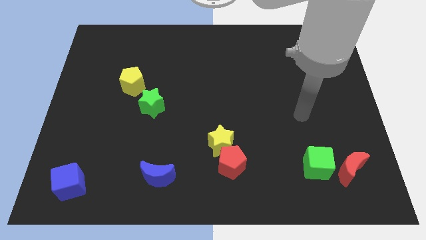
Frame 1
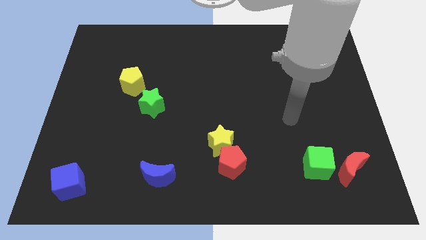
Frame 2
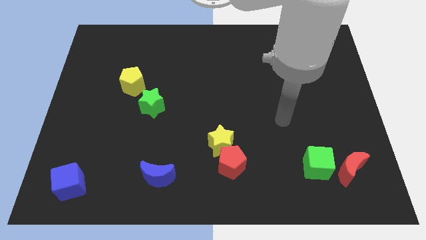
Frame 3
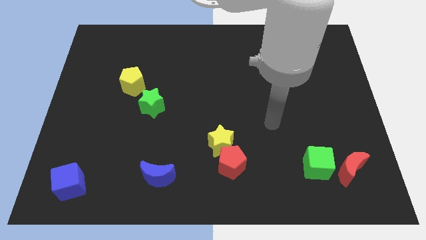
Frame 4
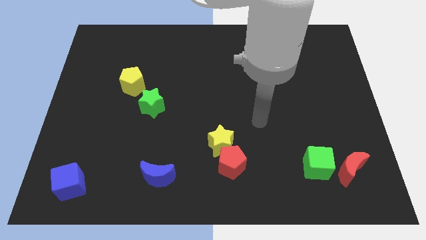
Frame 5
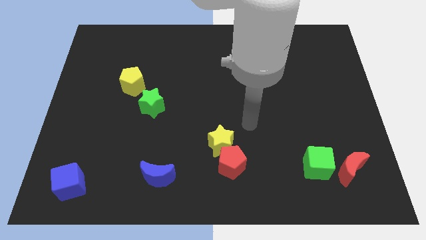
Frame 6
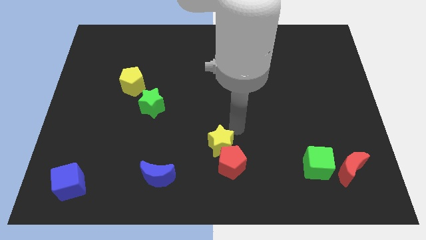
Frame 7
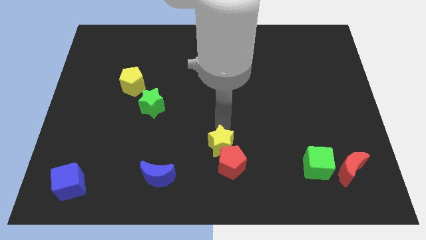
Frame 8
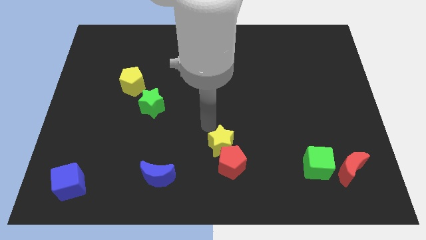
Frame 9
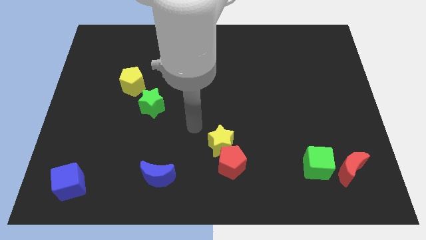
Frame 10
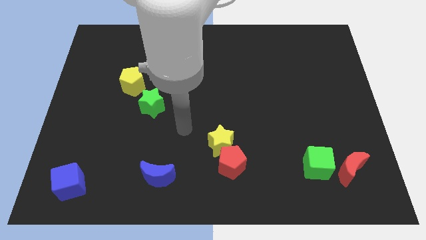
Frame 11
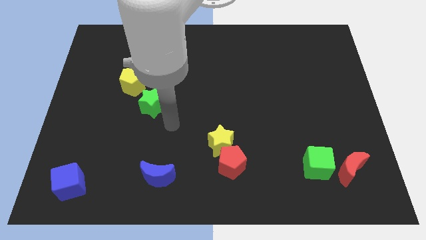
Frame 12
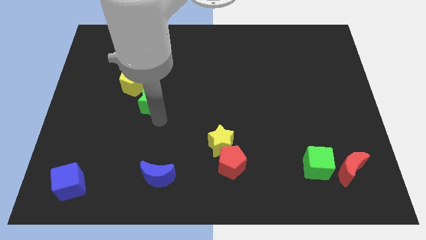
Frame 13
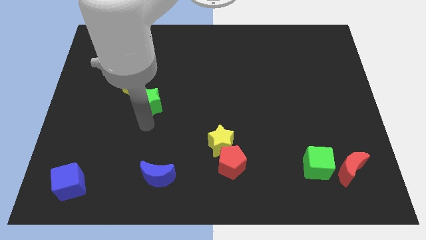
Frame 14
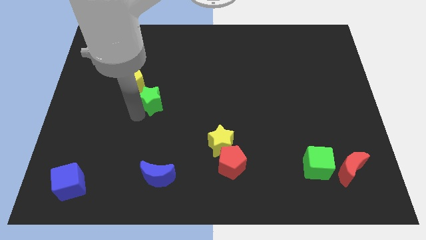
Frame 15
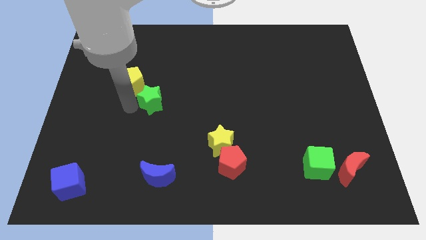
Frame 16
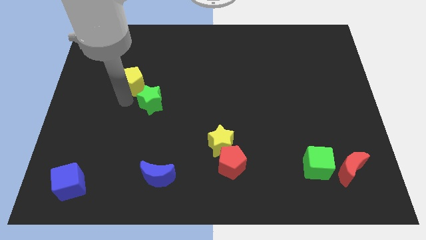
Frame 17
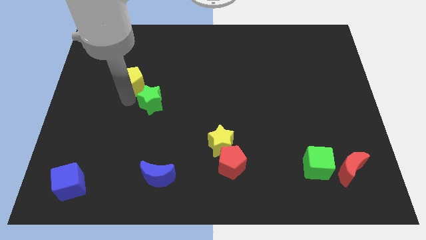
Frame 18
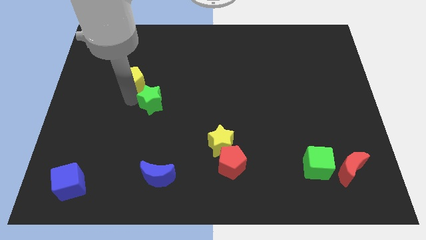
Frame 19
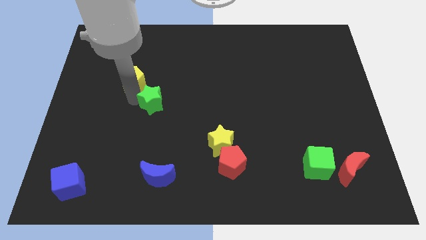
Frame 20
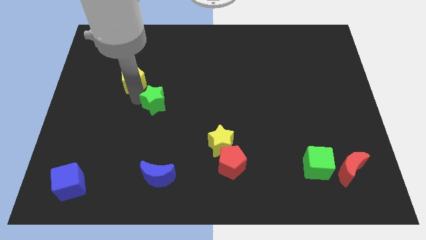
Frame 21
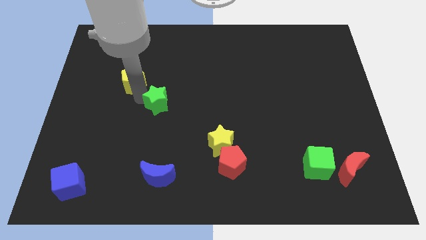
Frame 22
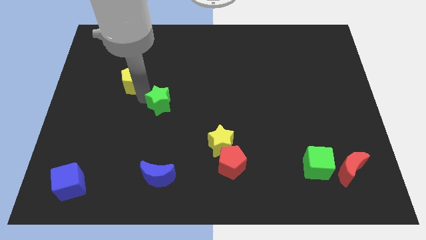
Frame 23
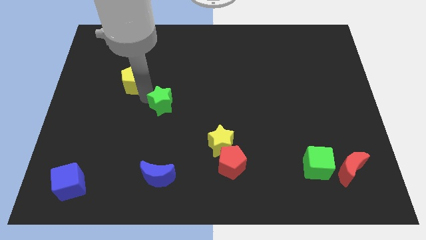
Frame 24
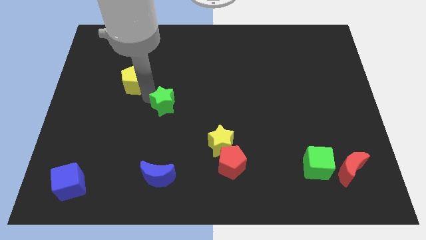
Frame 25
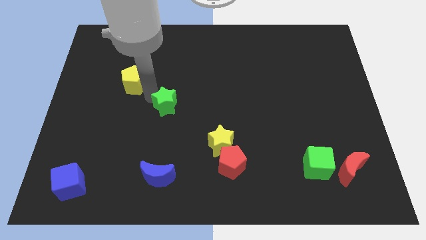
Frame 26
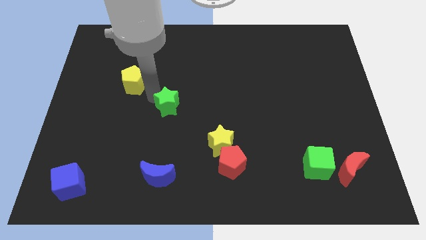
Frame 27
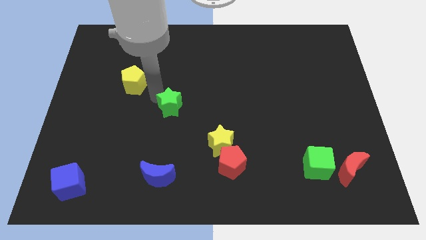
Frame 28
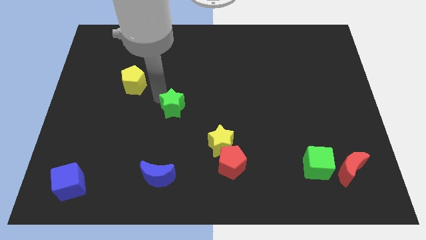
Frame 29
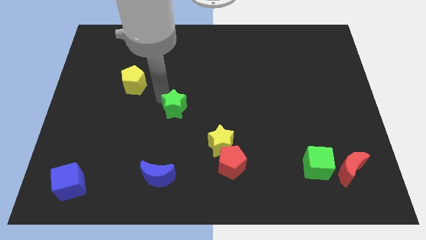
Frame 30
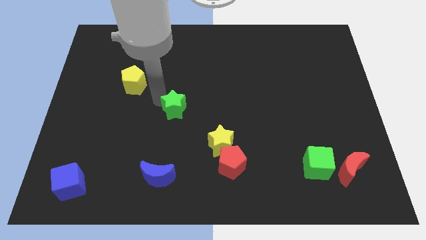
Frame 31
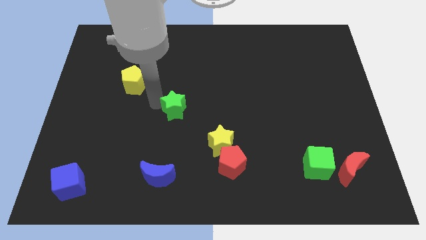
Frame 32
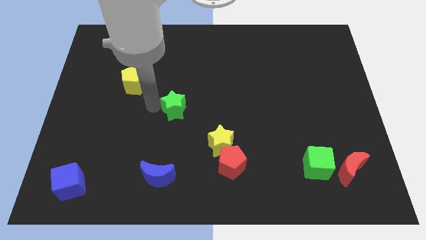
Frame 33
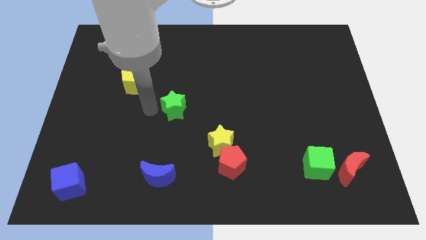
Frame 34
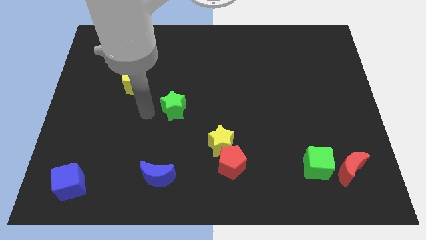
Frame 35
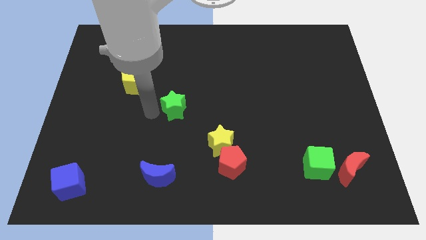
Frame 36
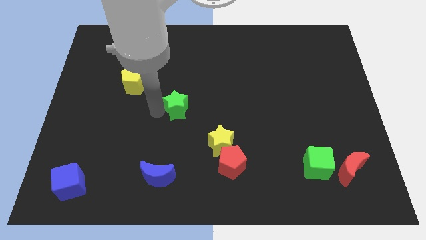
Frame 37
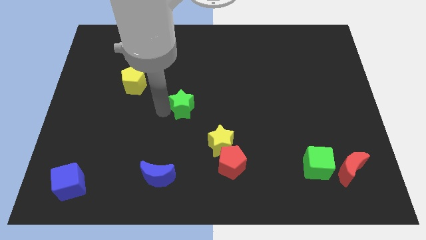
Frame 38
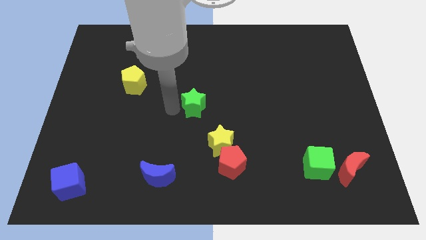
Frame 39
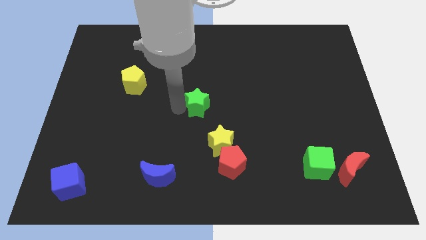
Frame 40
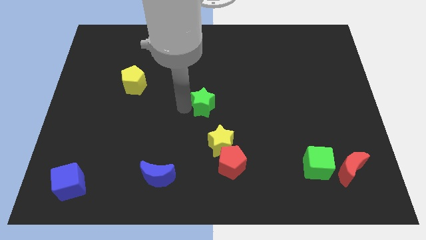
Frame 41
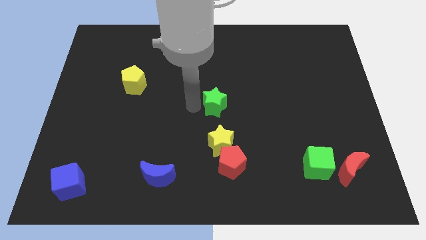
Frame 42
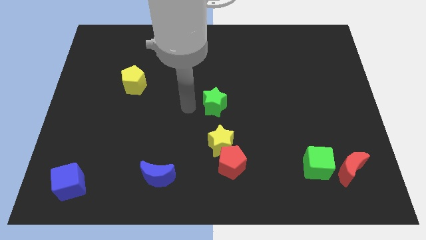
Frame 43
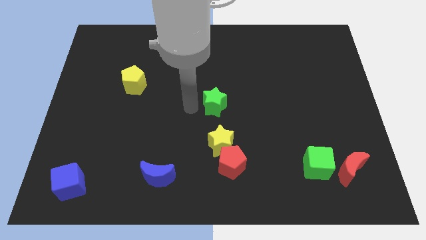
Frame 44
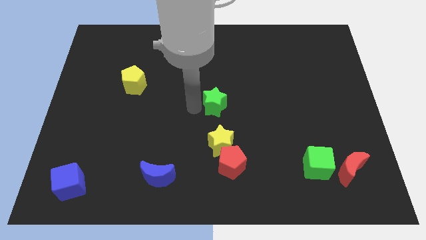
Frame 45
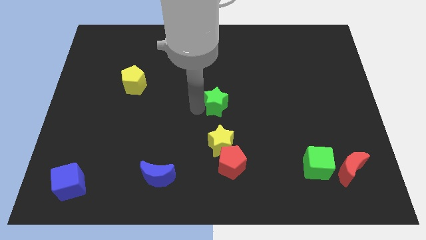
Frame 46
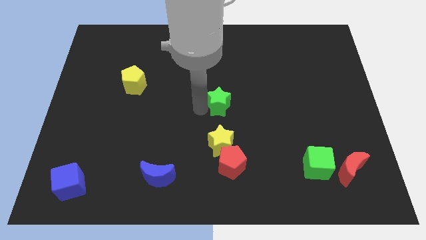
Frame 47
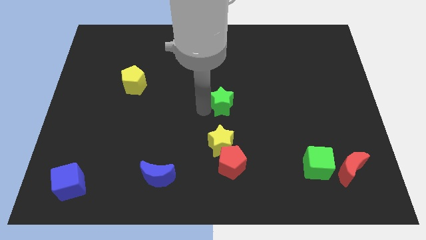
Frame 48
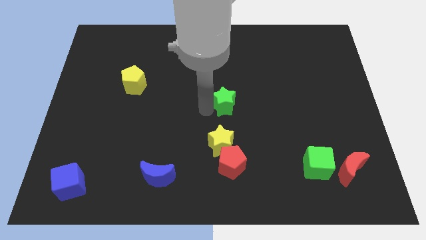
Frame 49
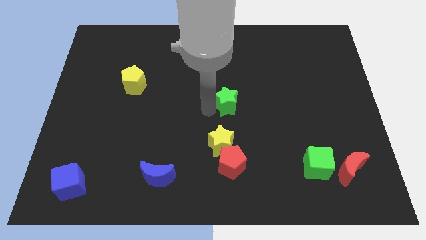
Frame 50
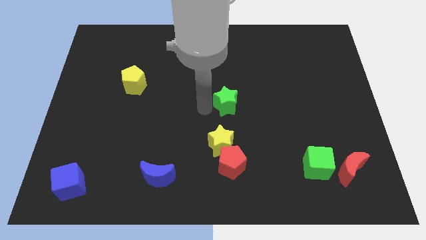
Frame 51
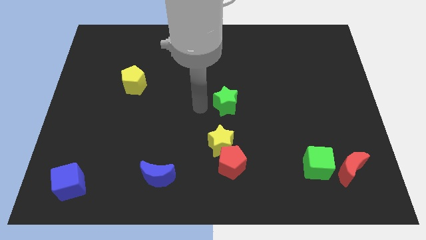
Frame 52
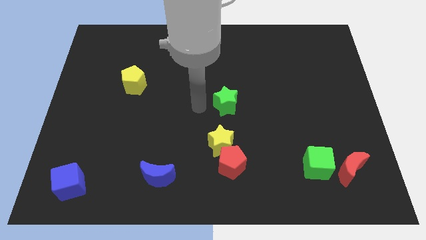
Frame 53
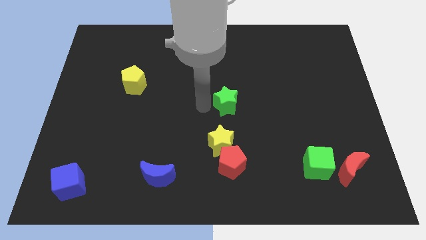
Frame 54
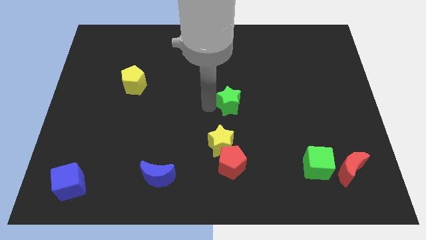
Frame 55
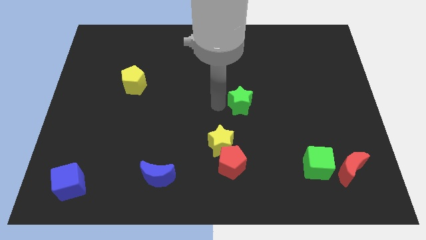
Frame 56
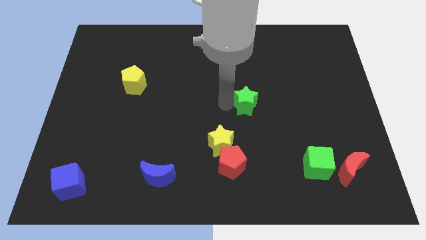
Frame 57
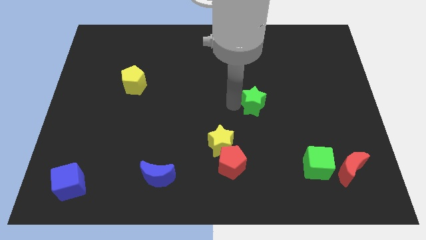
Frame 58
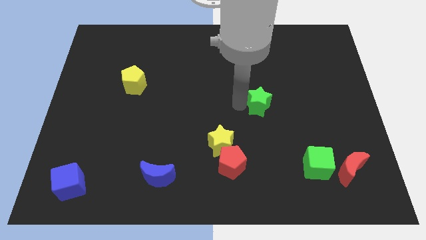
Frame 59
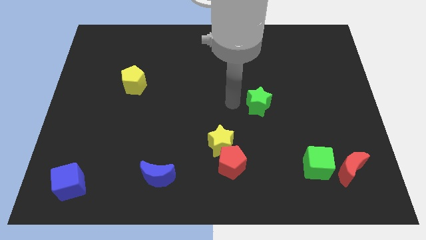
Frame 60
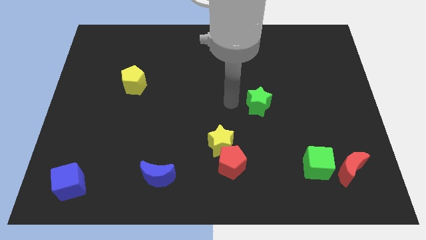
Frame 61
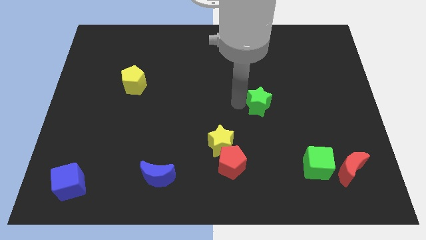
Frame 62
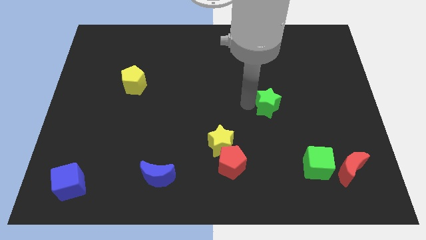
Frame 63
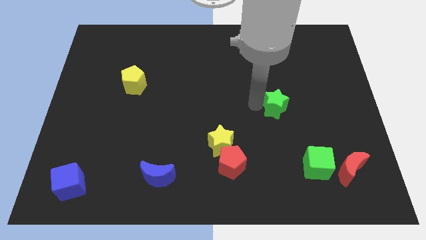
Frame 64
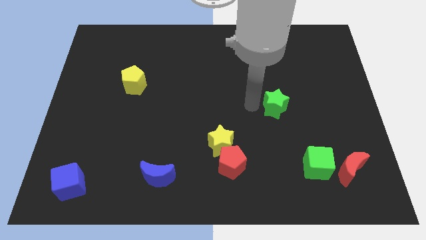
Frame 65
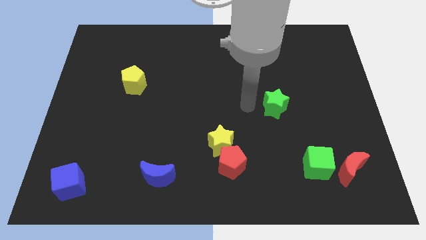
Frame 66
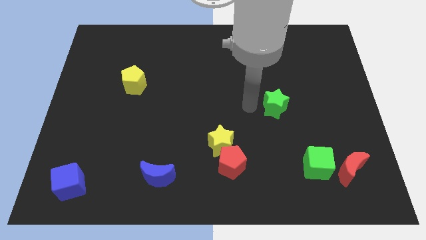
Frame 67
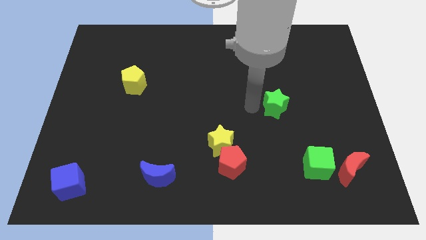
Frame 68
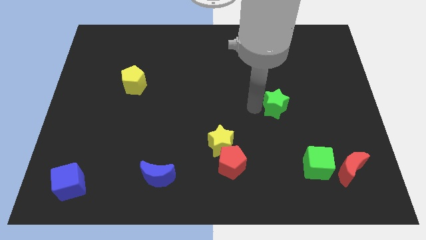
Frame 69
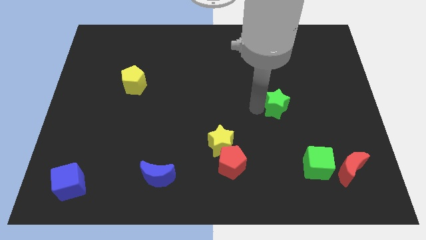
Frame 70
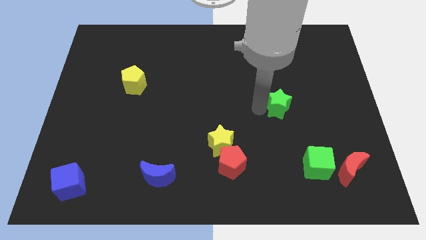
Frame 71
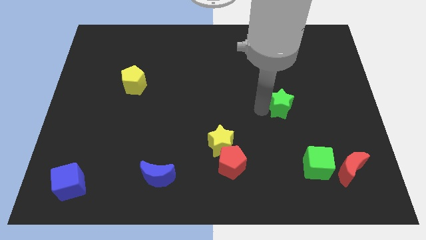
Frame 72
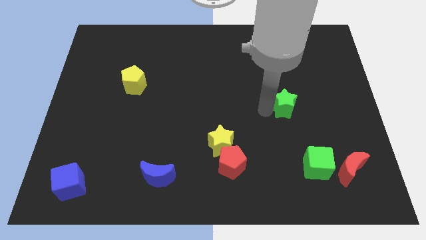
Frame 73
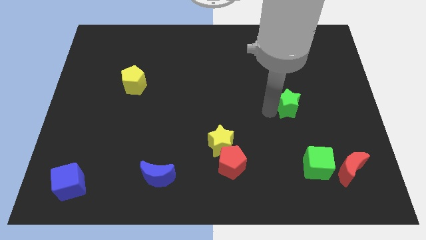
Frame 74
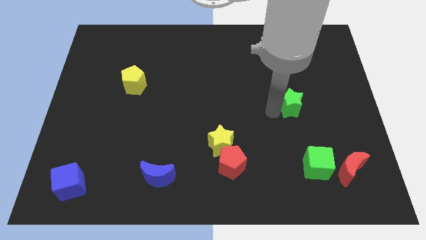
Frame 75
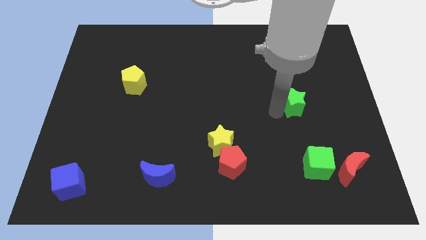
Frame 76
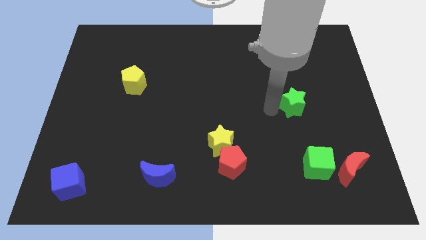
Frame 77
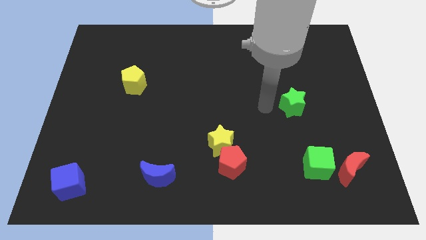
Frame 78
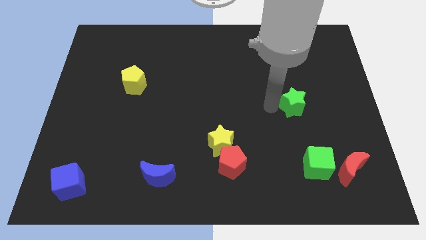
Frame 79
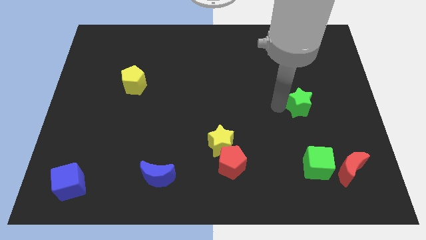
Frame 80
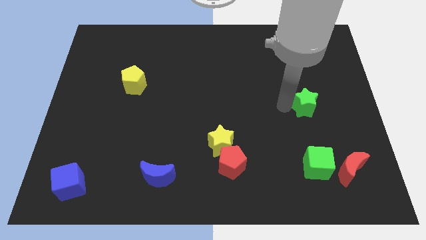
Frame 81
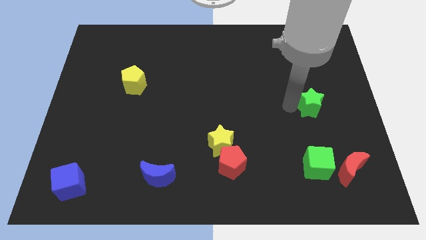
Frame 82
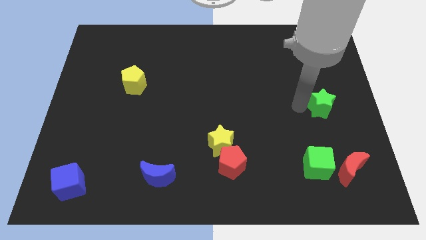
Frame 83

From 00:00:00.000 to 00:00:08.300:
move the green star to the right side
